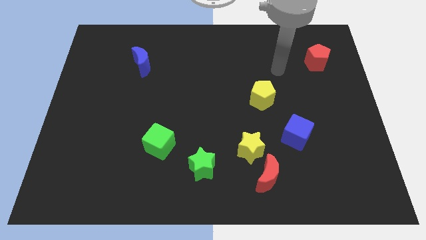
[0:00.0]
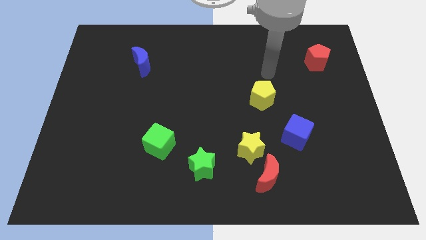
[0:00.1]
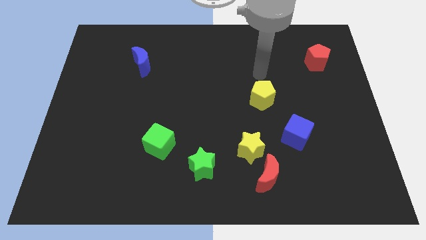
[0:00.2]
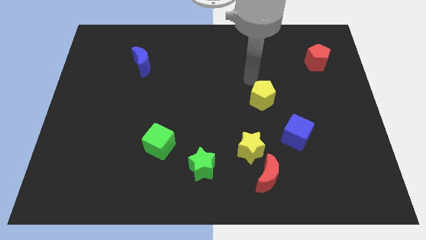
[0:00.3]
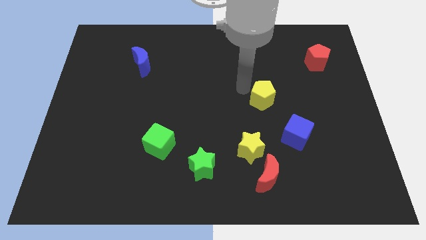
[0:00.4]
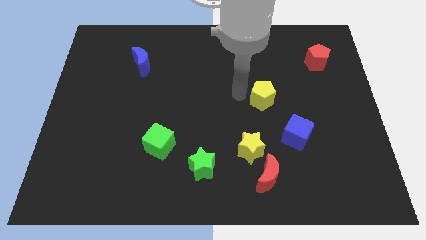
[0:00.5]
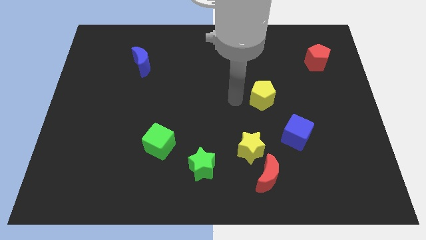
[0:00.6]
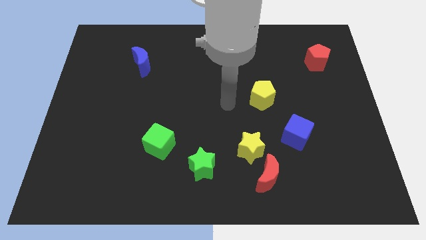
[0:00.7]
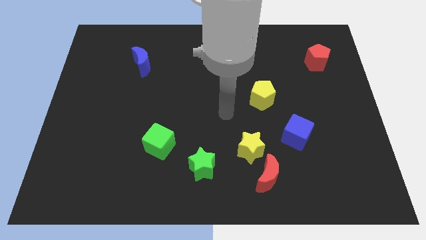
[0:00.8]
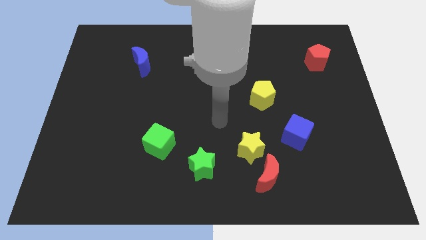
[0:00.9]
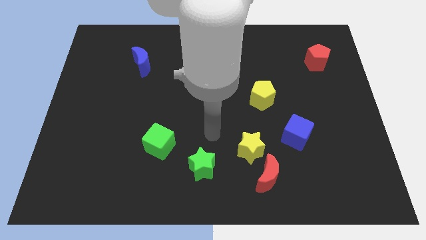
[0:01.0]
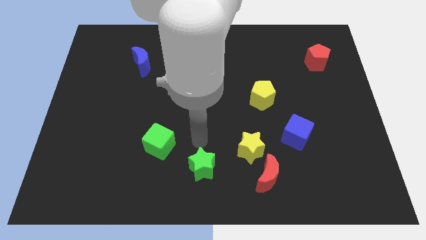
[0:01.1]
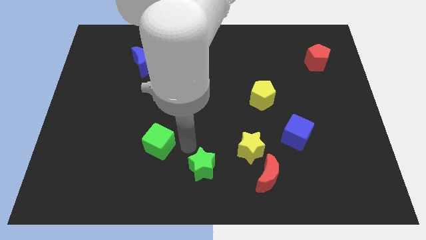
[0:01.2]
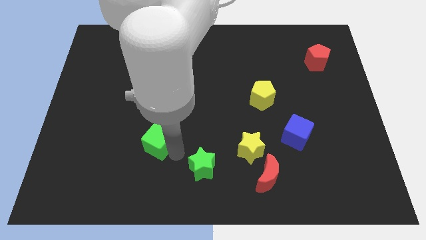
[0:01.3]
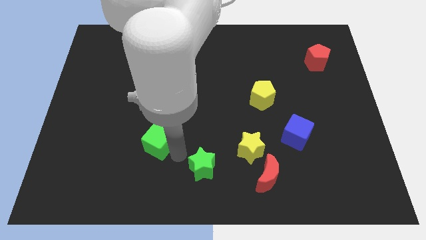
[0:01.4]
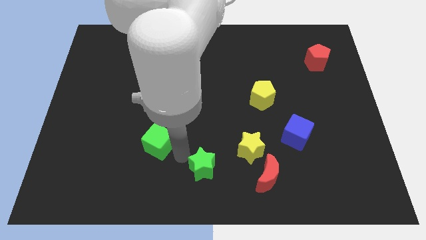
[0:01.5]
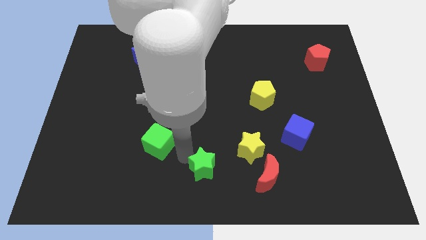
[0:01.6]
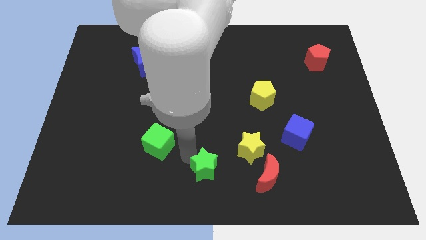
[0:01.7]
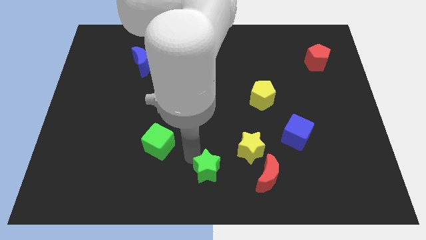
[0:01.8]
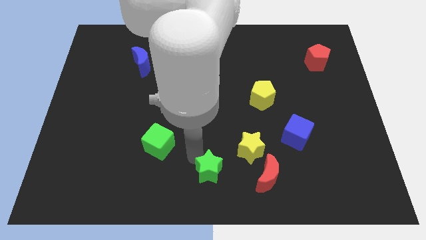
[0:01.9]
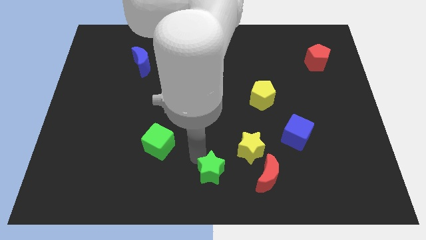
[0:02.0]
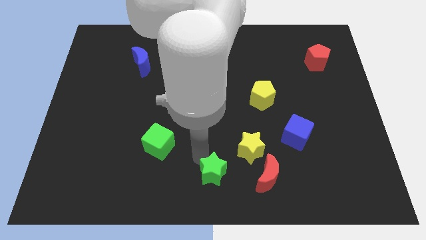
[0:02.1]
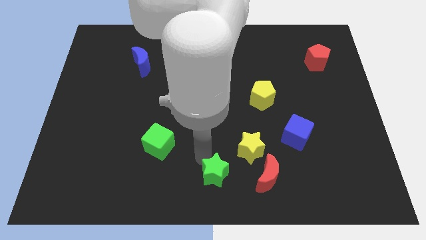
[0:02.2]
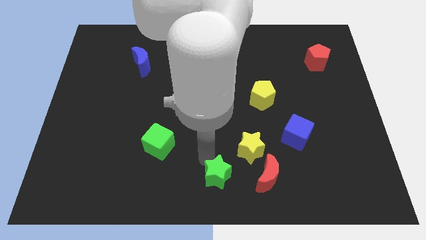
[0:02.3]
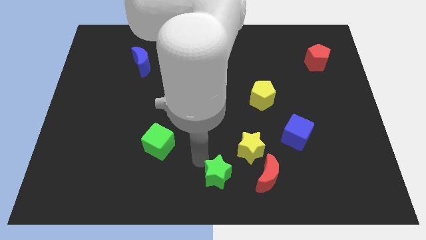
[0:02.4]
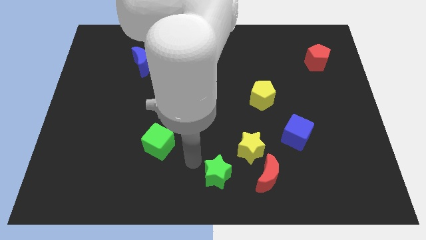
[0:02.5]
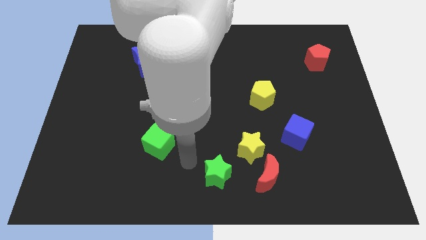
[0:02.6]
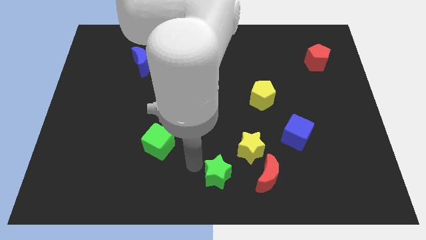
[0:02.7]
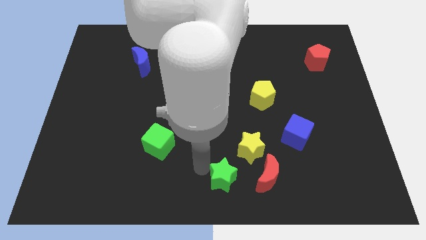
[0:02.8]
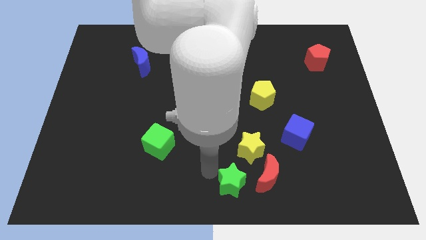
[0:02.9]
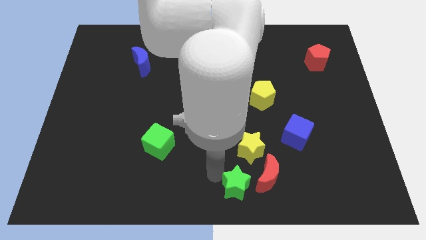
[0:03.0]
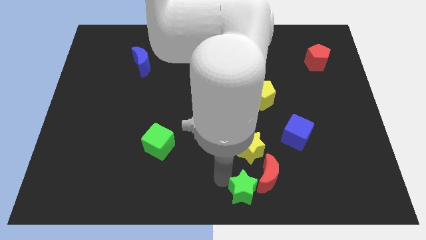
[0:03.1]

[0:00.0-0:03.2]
slightly move the green star to the right

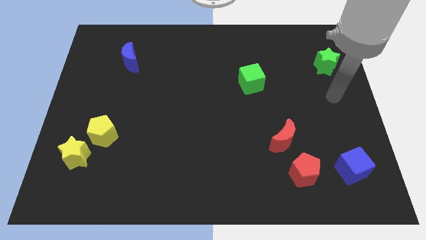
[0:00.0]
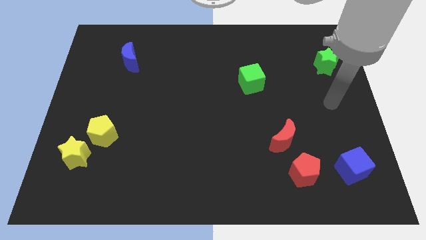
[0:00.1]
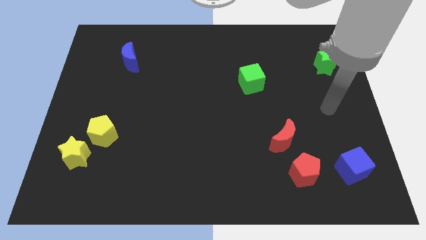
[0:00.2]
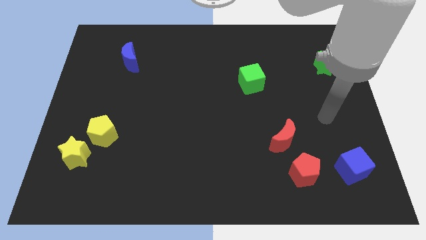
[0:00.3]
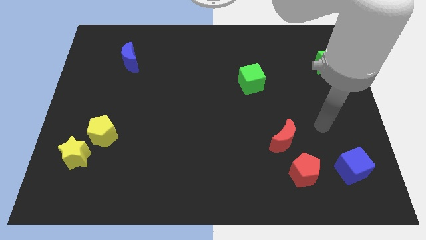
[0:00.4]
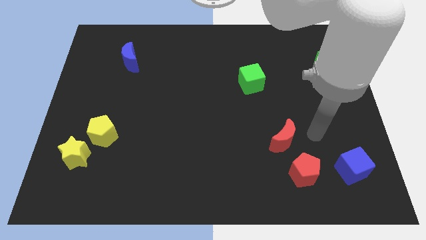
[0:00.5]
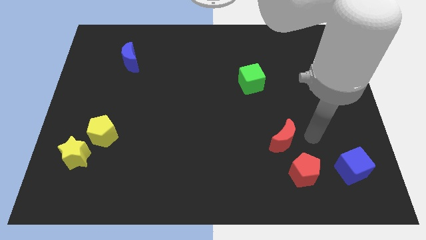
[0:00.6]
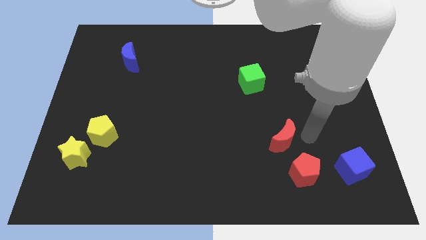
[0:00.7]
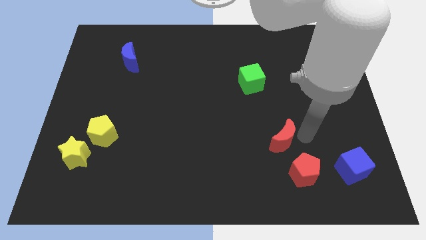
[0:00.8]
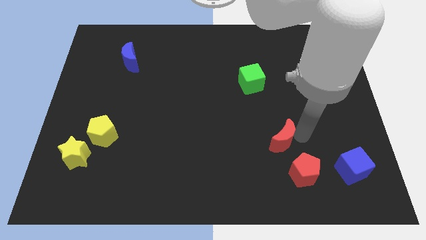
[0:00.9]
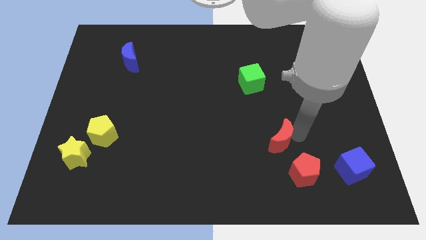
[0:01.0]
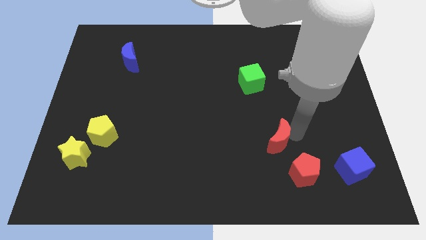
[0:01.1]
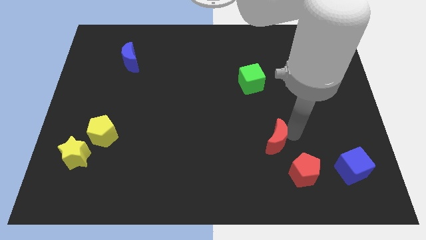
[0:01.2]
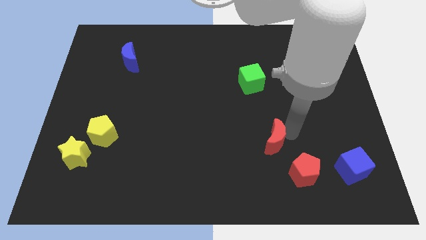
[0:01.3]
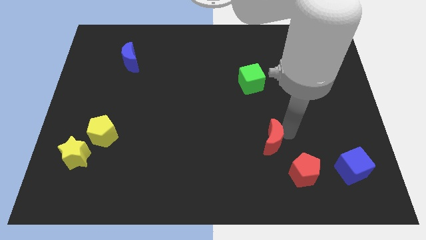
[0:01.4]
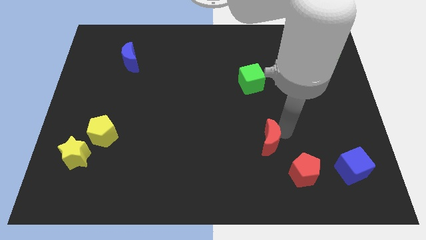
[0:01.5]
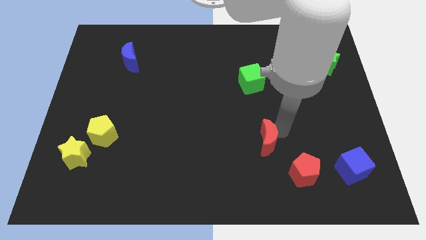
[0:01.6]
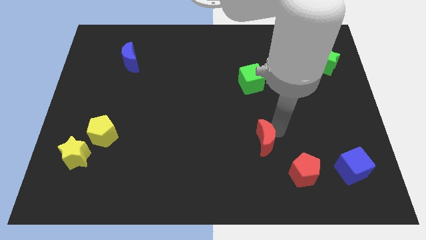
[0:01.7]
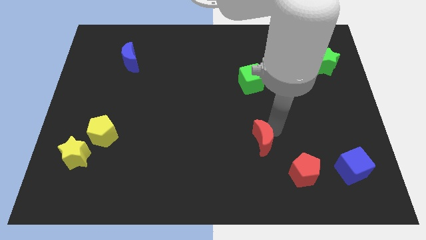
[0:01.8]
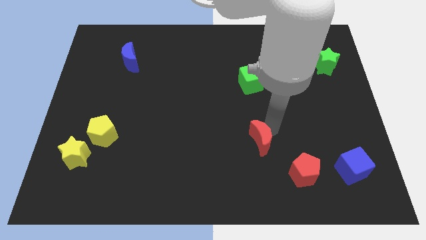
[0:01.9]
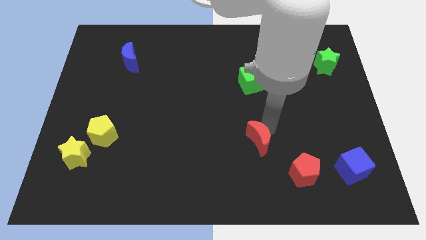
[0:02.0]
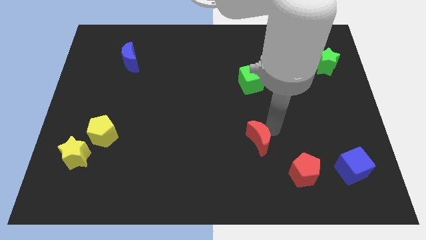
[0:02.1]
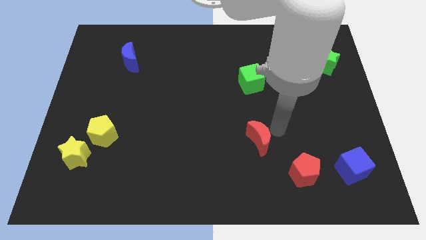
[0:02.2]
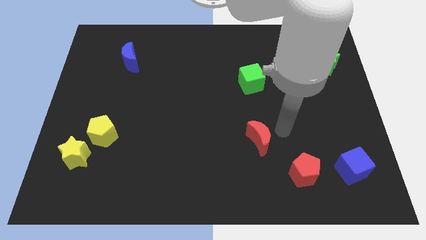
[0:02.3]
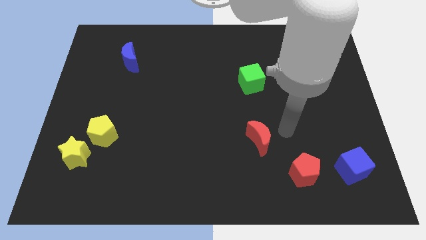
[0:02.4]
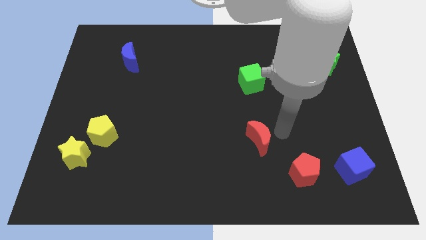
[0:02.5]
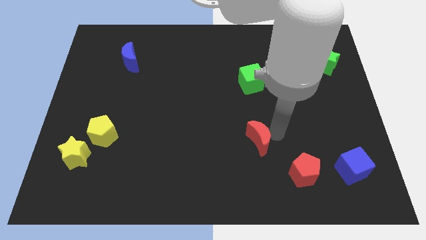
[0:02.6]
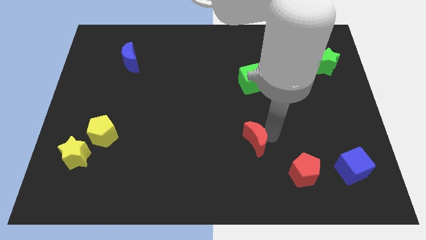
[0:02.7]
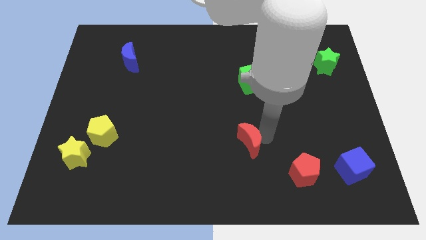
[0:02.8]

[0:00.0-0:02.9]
push the red moon slightly to the left

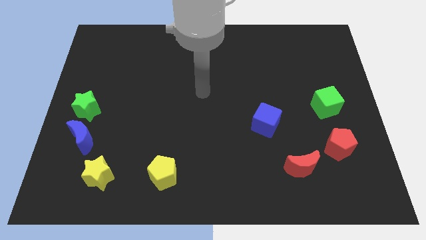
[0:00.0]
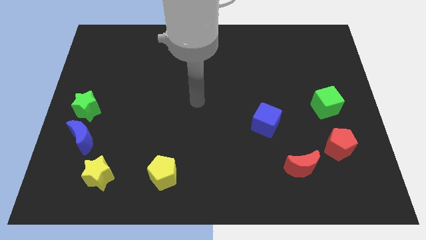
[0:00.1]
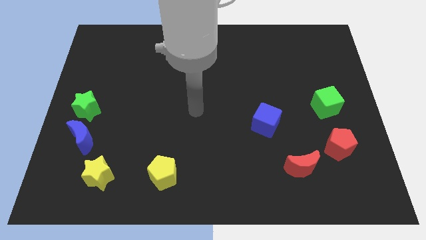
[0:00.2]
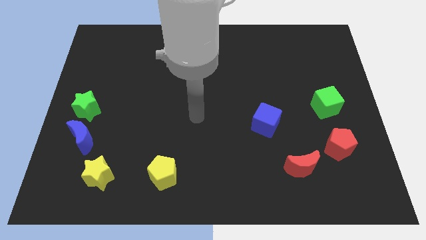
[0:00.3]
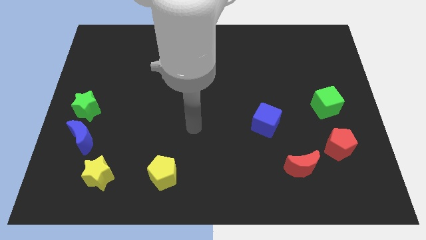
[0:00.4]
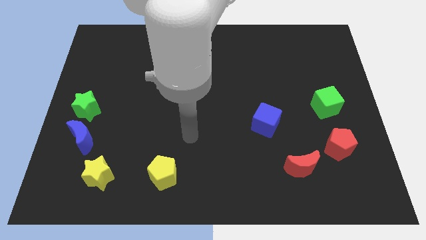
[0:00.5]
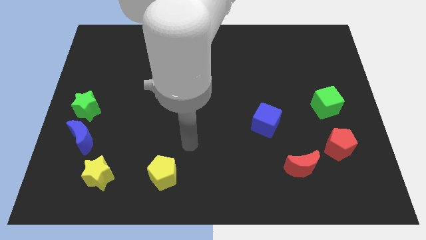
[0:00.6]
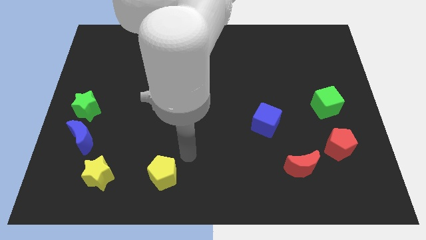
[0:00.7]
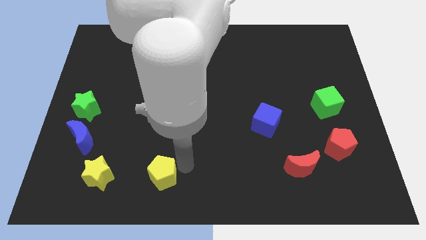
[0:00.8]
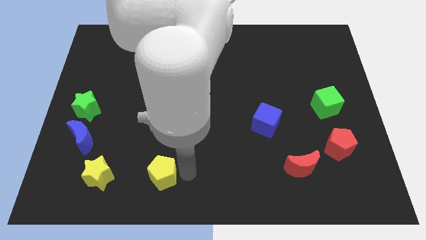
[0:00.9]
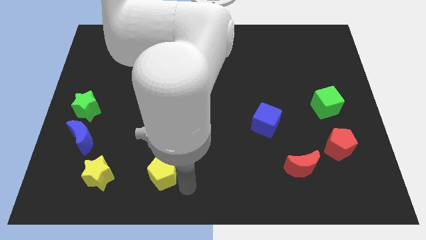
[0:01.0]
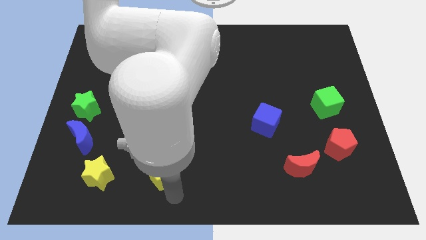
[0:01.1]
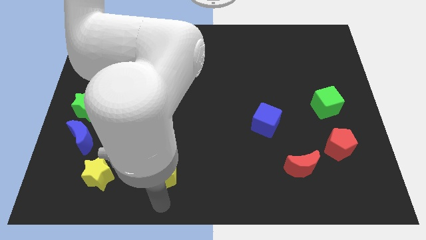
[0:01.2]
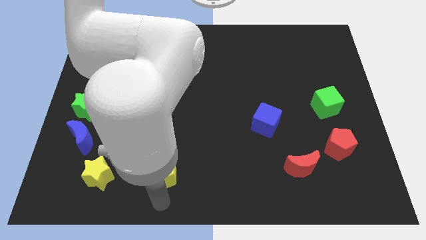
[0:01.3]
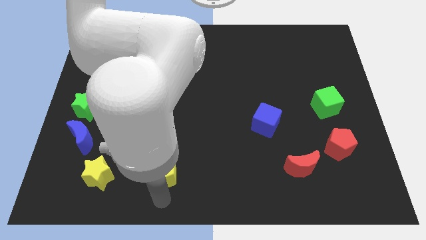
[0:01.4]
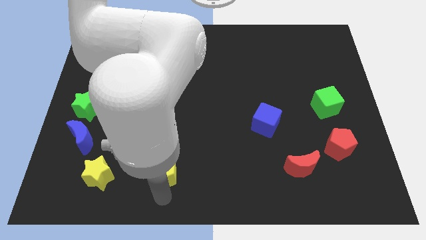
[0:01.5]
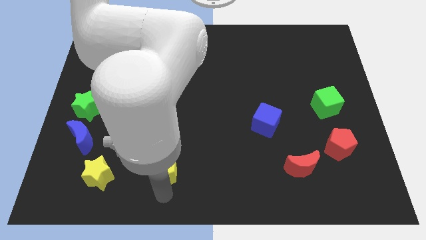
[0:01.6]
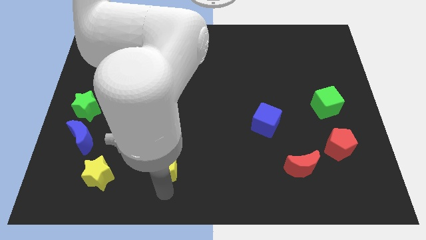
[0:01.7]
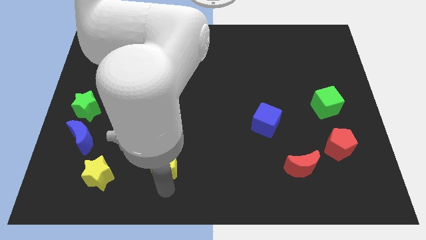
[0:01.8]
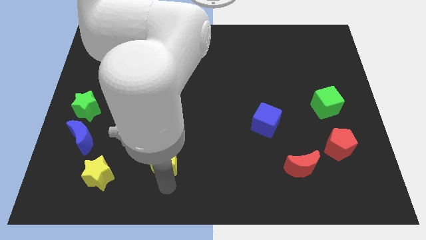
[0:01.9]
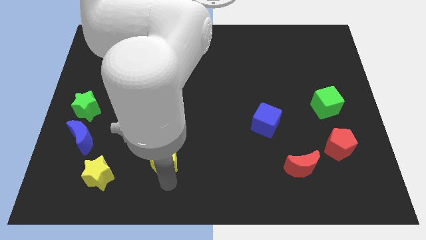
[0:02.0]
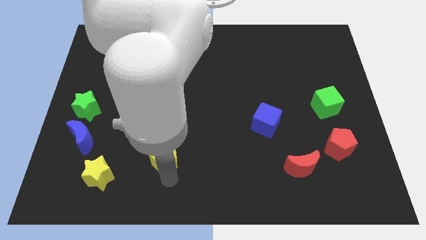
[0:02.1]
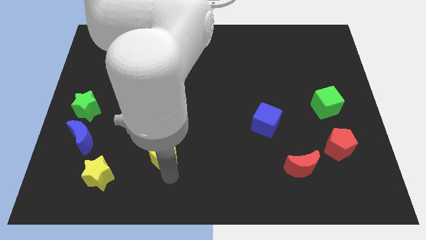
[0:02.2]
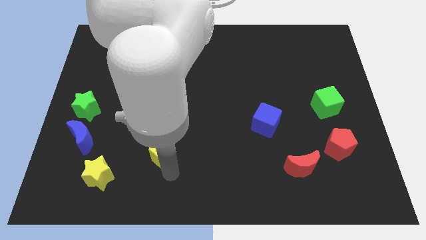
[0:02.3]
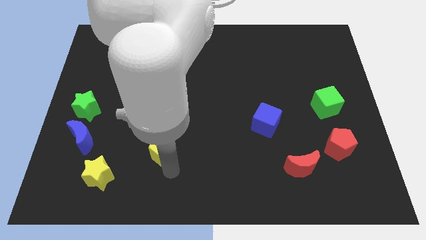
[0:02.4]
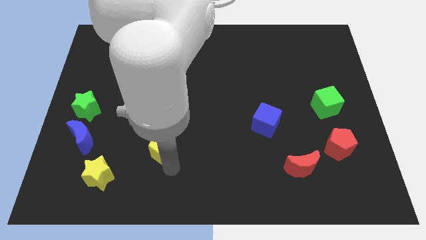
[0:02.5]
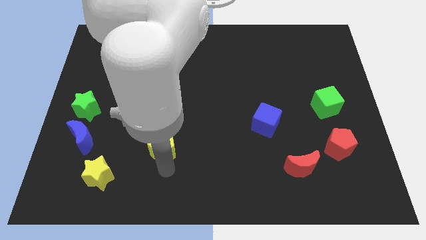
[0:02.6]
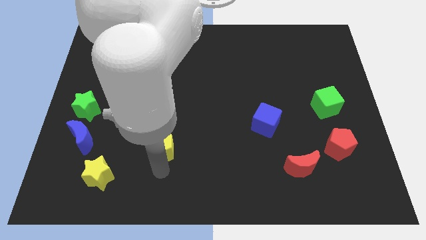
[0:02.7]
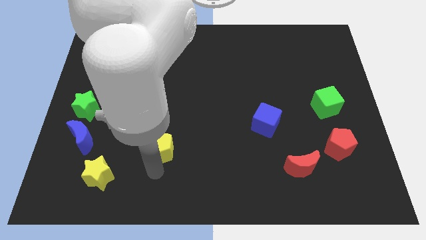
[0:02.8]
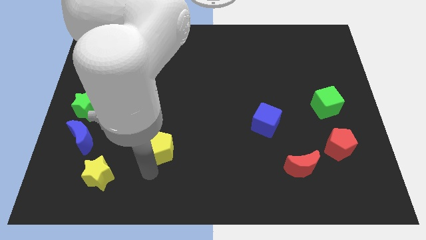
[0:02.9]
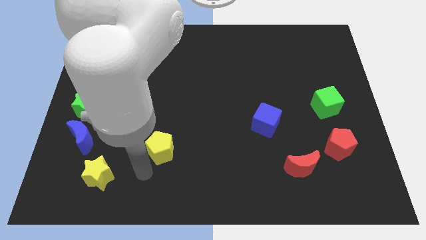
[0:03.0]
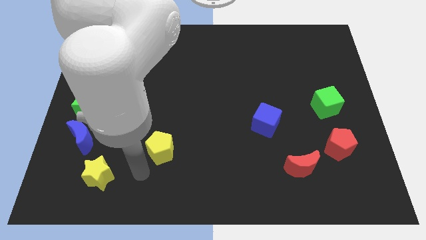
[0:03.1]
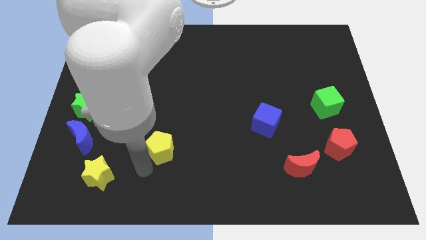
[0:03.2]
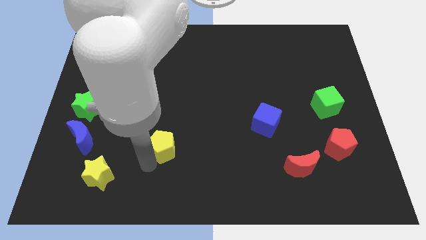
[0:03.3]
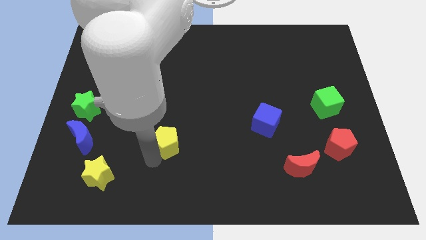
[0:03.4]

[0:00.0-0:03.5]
slide the yellow pentagon a little upwards
